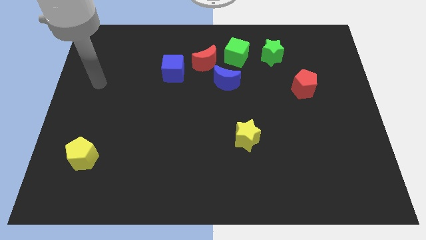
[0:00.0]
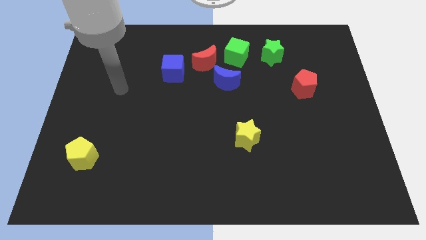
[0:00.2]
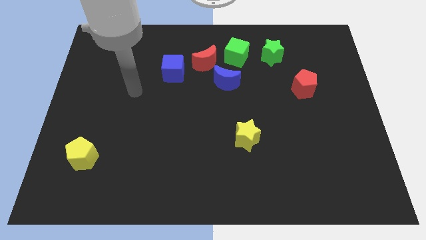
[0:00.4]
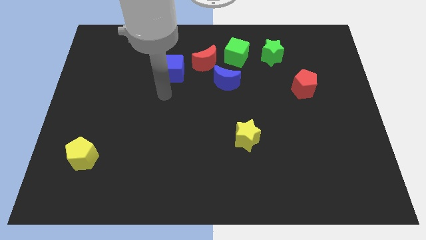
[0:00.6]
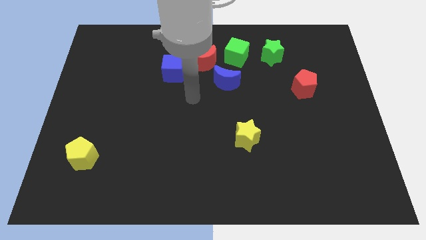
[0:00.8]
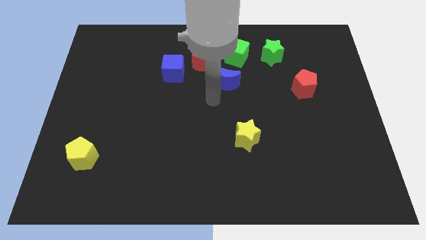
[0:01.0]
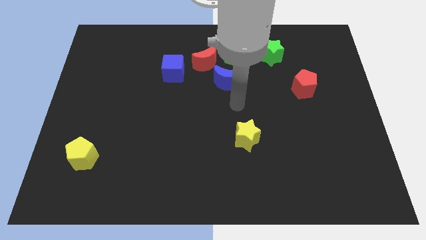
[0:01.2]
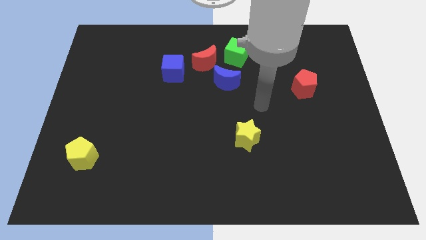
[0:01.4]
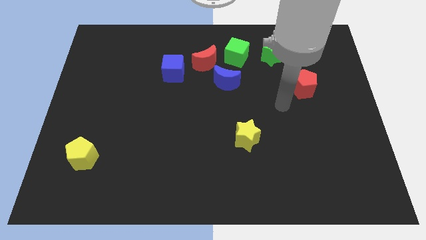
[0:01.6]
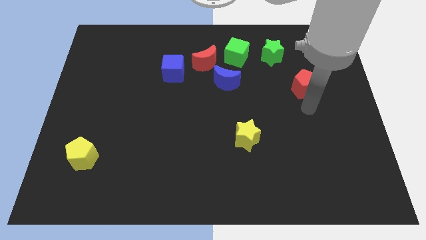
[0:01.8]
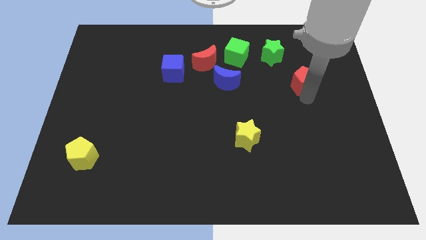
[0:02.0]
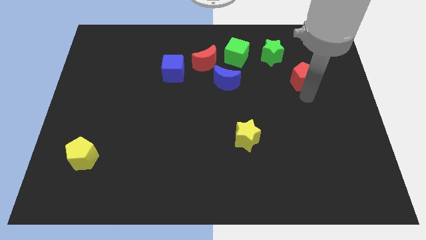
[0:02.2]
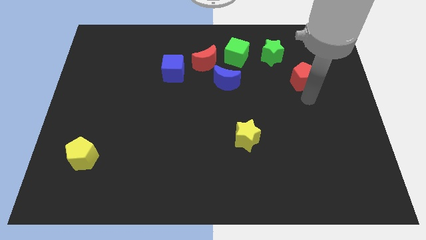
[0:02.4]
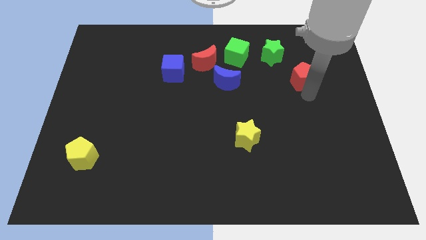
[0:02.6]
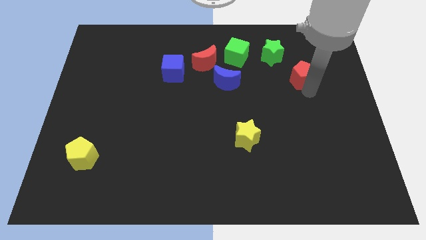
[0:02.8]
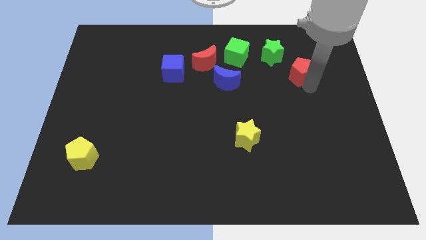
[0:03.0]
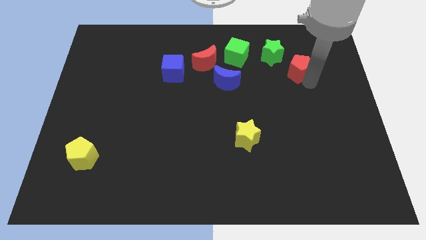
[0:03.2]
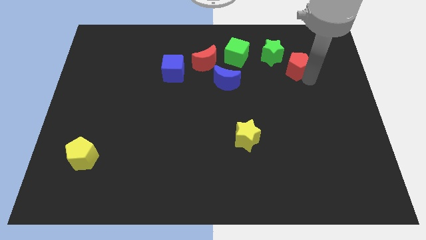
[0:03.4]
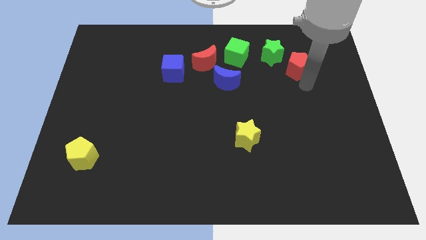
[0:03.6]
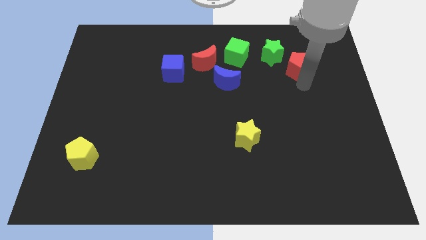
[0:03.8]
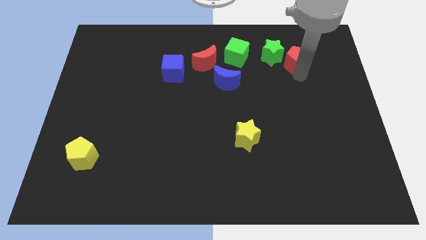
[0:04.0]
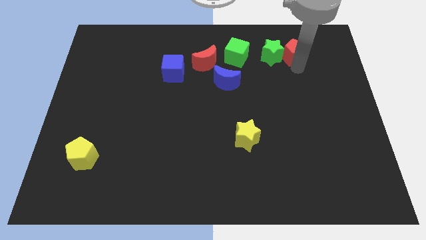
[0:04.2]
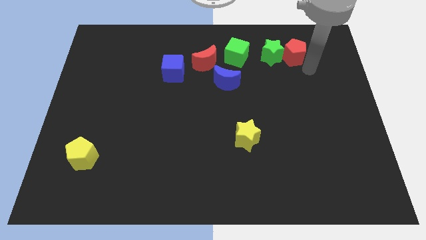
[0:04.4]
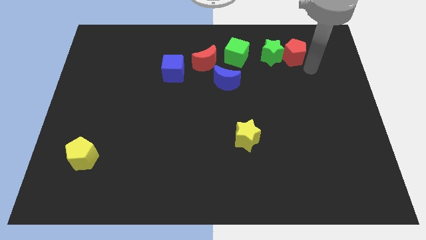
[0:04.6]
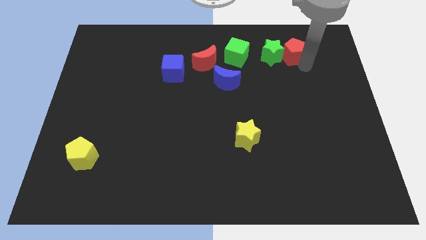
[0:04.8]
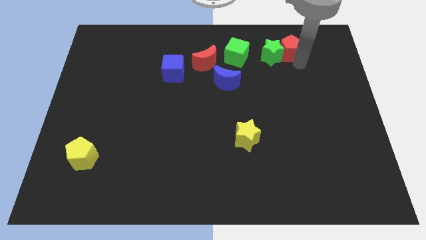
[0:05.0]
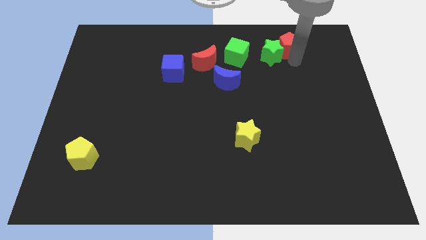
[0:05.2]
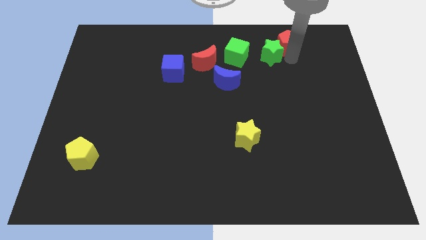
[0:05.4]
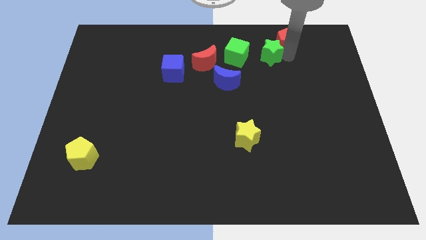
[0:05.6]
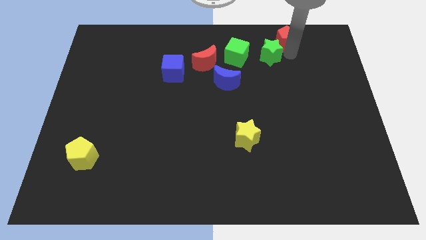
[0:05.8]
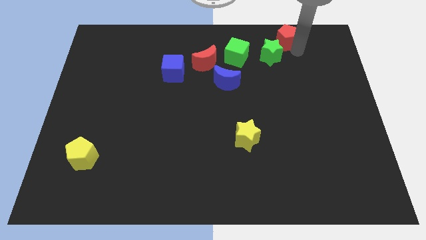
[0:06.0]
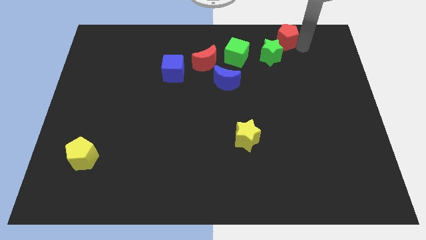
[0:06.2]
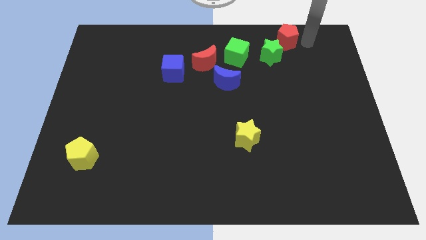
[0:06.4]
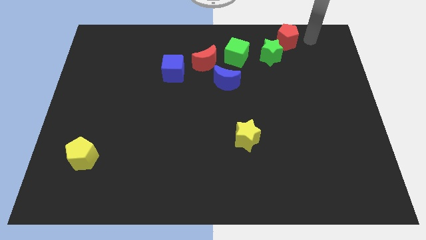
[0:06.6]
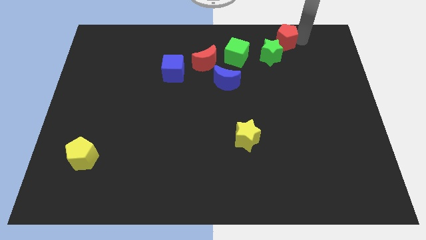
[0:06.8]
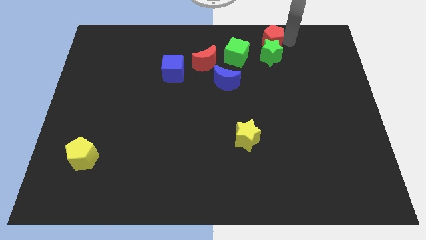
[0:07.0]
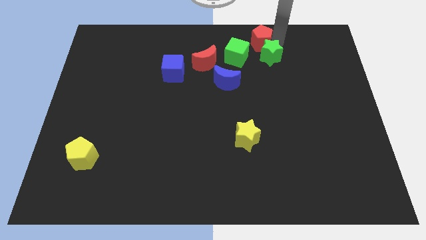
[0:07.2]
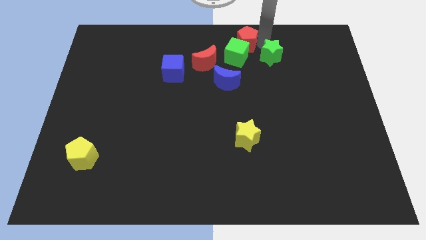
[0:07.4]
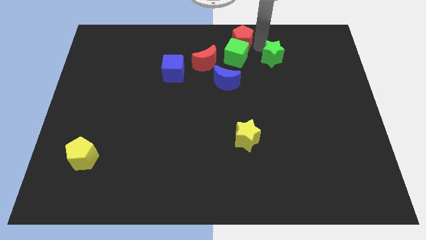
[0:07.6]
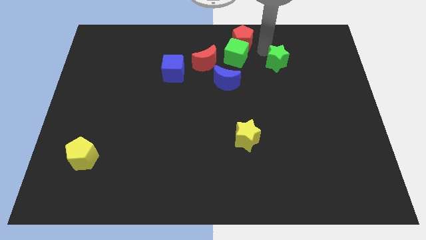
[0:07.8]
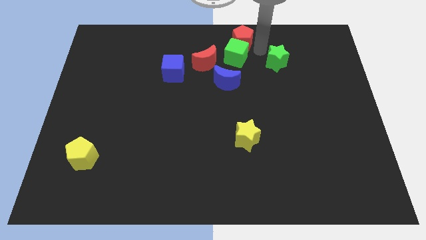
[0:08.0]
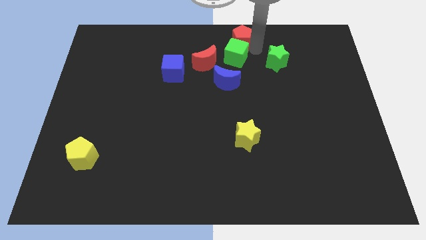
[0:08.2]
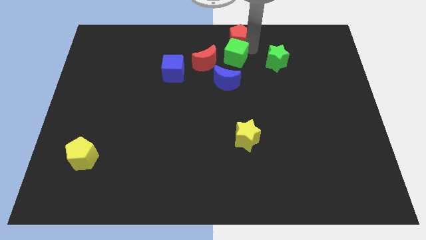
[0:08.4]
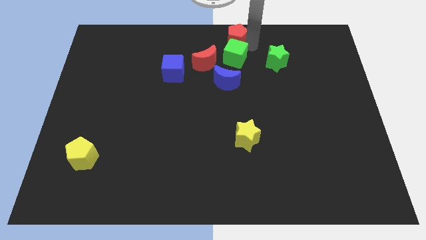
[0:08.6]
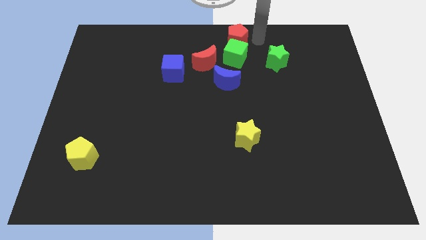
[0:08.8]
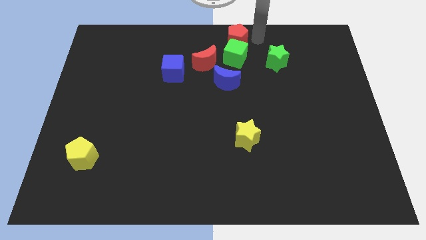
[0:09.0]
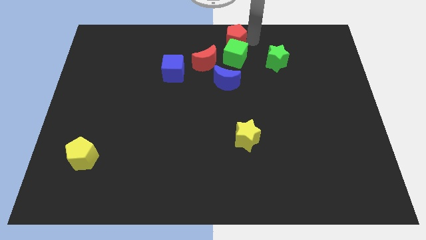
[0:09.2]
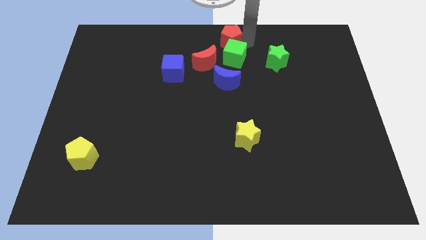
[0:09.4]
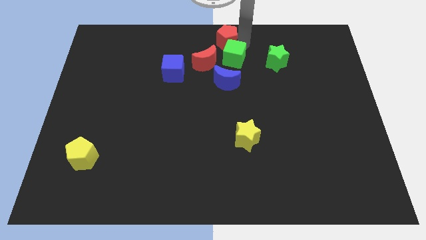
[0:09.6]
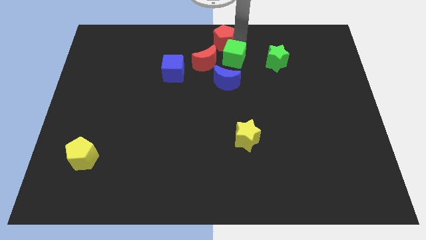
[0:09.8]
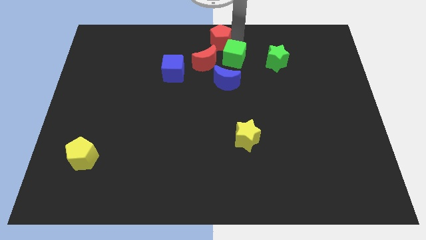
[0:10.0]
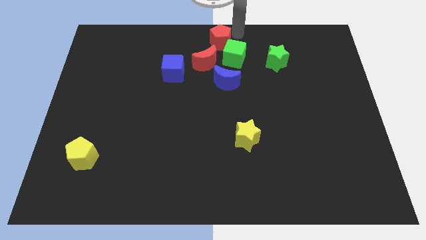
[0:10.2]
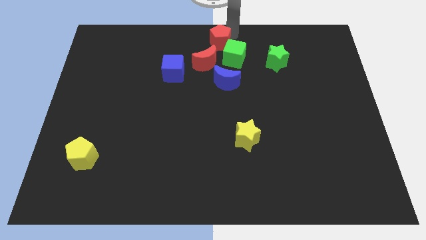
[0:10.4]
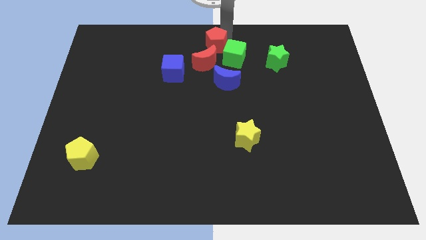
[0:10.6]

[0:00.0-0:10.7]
slide the red pentagon to the left side of the green cube

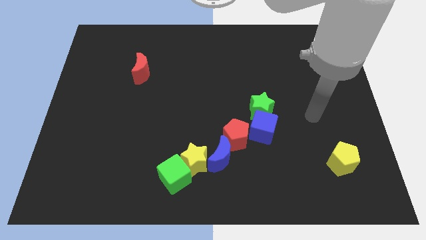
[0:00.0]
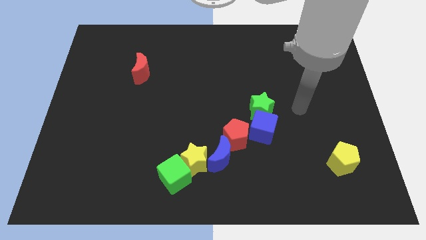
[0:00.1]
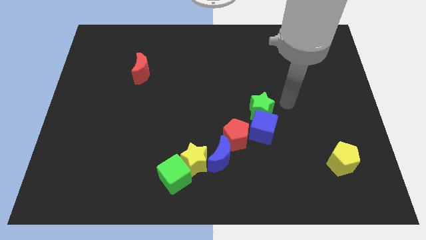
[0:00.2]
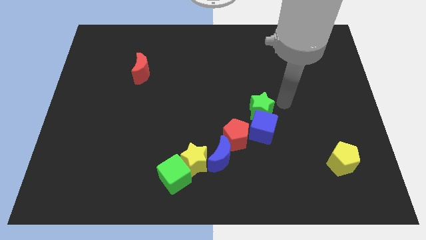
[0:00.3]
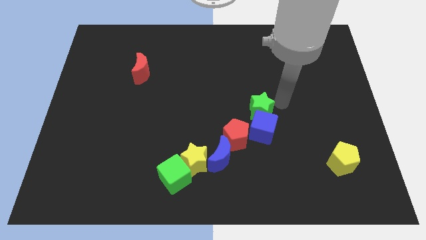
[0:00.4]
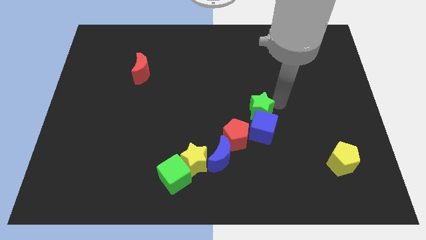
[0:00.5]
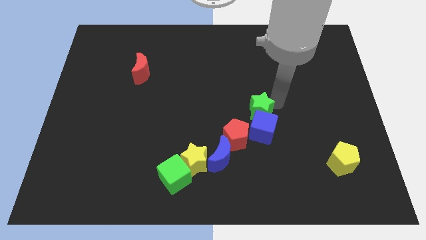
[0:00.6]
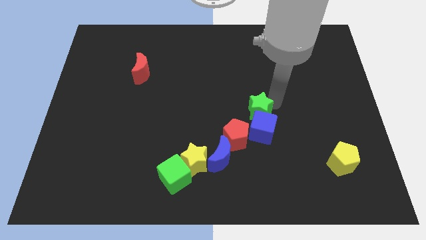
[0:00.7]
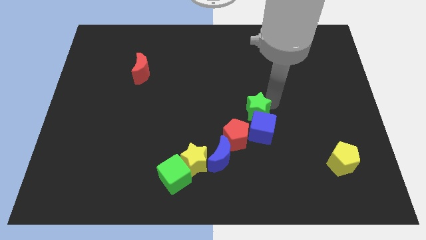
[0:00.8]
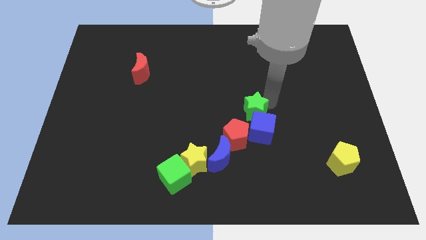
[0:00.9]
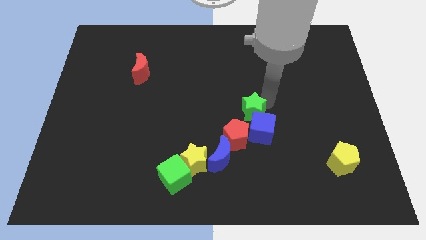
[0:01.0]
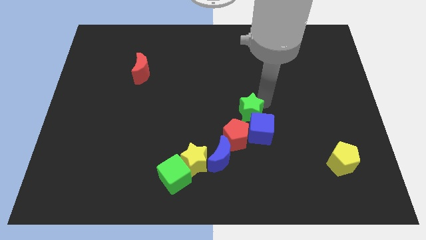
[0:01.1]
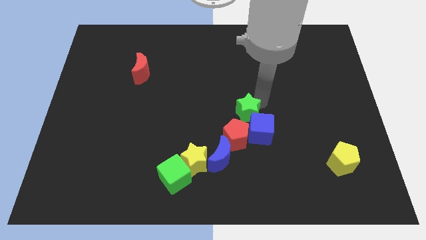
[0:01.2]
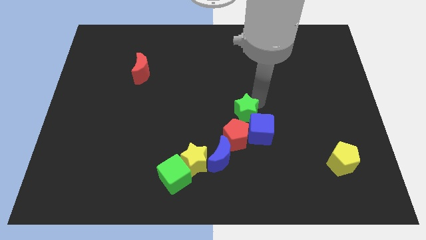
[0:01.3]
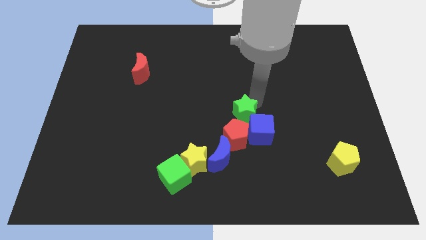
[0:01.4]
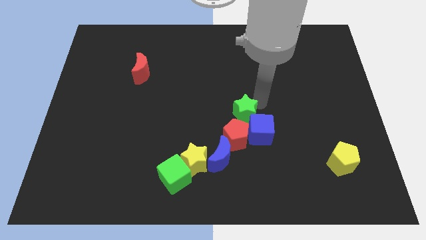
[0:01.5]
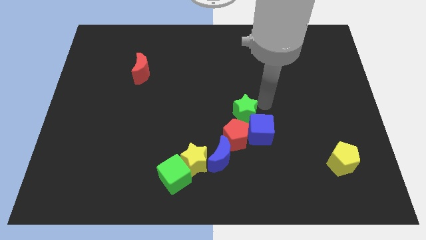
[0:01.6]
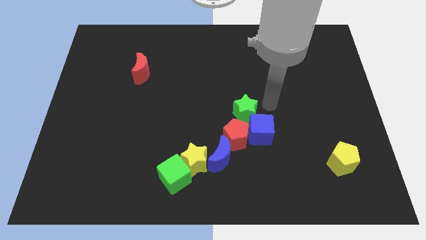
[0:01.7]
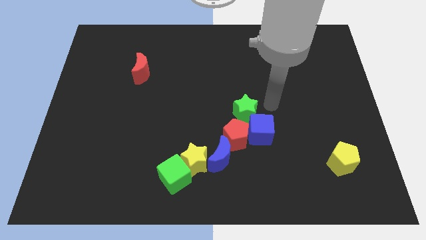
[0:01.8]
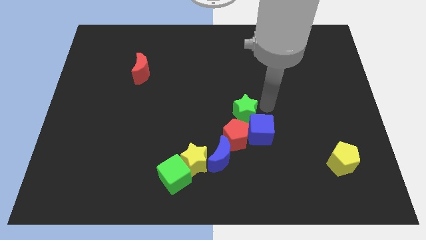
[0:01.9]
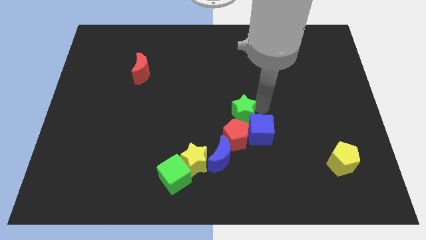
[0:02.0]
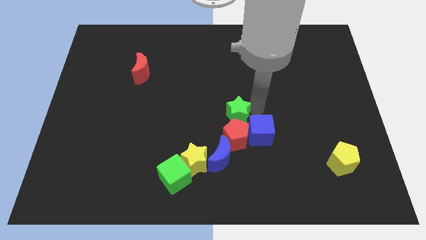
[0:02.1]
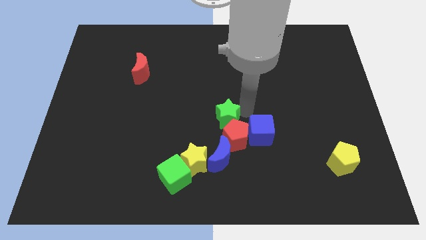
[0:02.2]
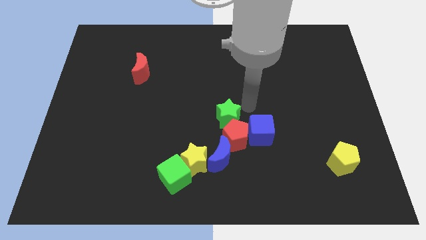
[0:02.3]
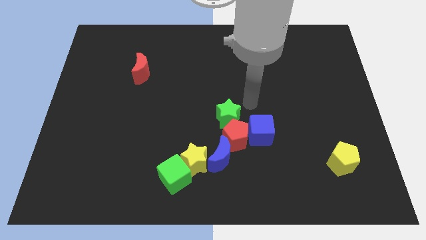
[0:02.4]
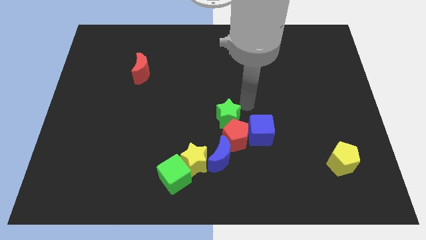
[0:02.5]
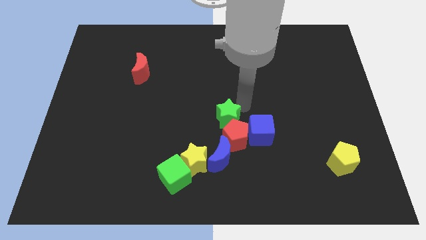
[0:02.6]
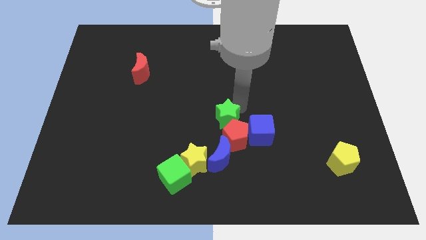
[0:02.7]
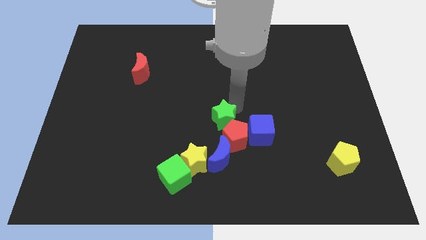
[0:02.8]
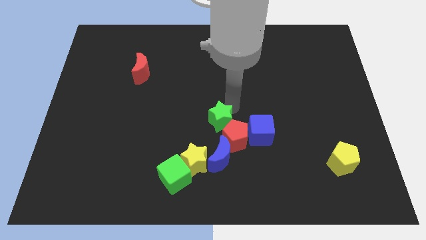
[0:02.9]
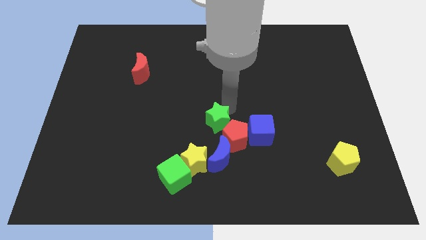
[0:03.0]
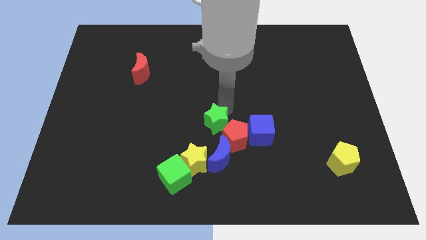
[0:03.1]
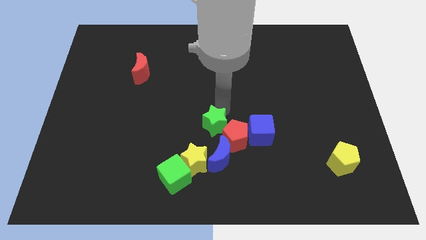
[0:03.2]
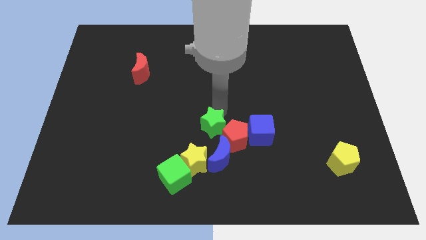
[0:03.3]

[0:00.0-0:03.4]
slide the green star to the top left of the blue moon
